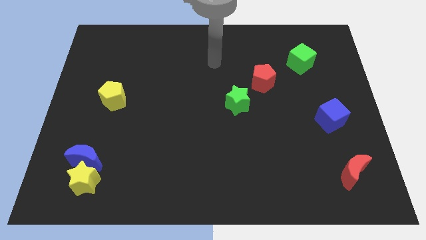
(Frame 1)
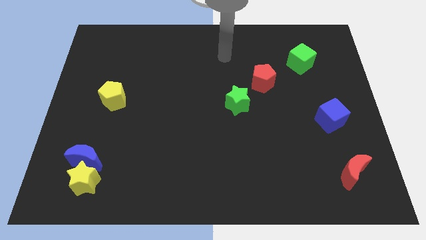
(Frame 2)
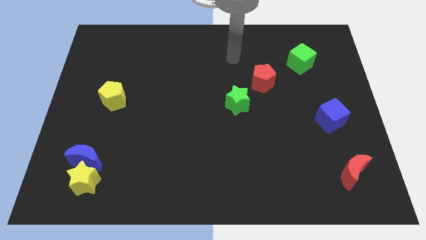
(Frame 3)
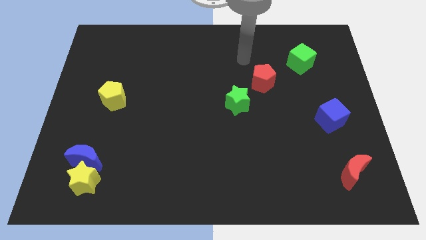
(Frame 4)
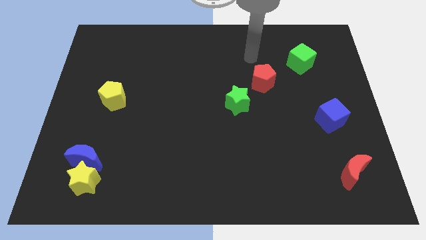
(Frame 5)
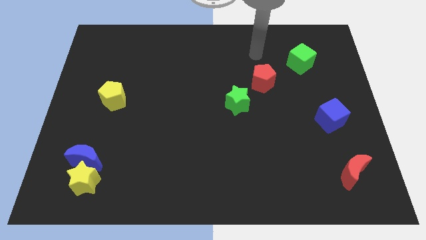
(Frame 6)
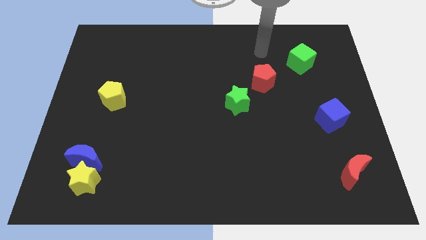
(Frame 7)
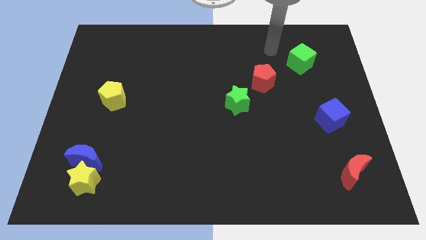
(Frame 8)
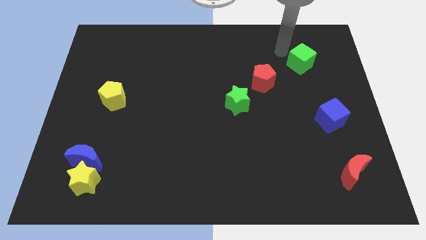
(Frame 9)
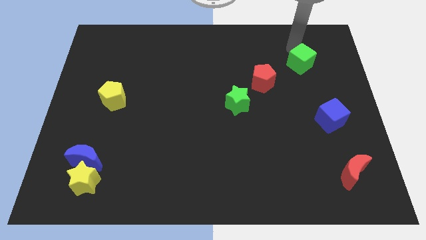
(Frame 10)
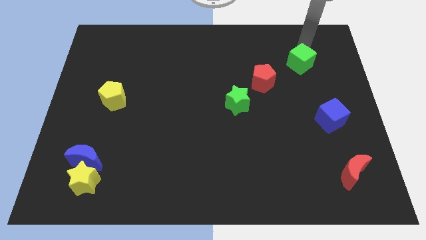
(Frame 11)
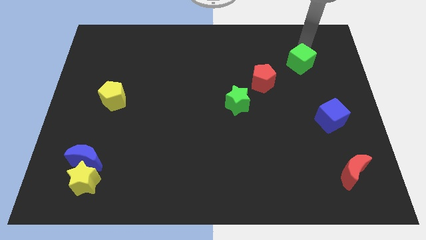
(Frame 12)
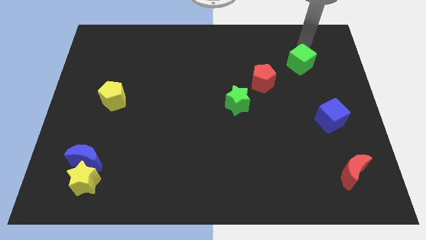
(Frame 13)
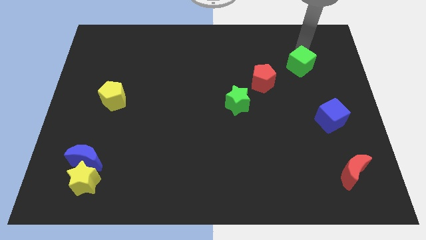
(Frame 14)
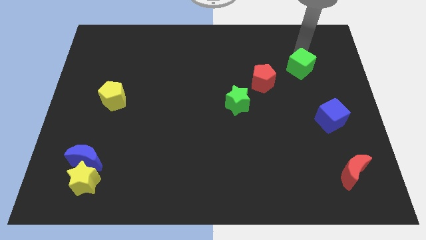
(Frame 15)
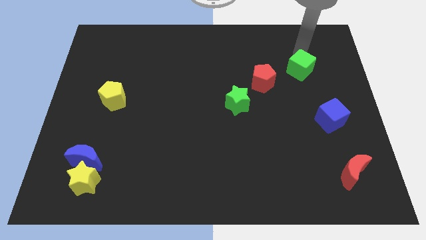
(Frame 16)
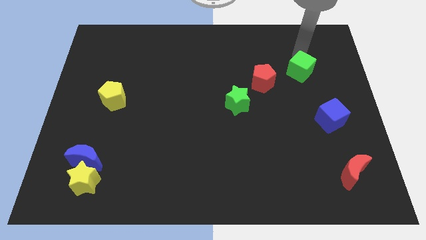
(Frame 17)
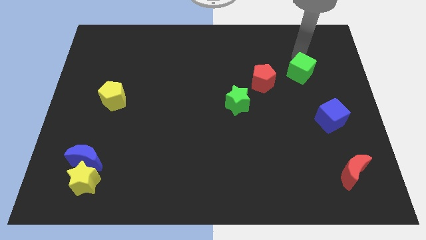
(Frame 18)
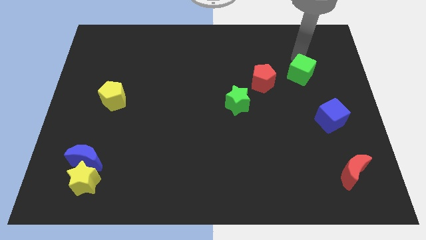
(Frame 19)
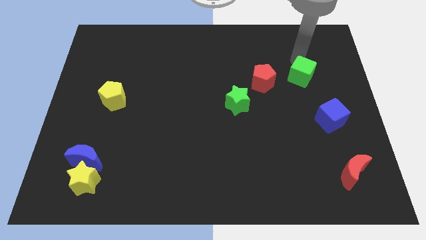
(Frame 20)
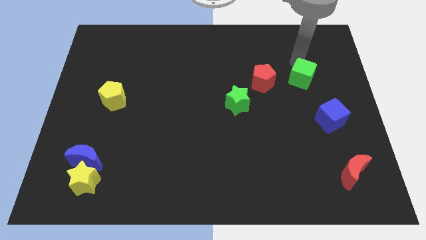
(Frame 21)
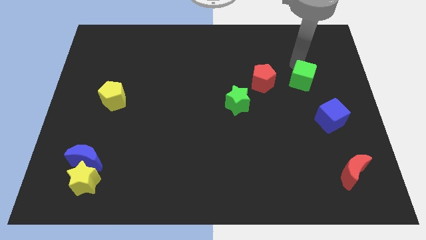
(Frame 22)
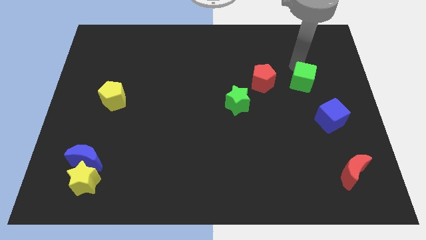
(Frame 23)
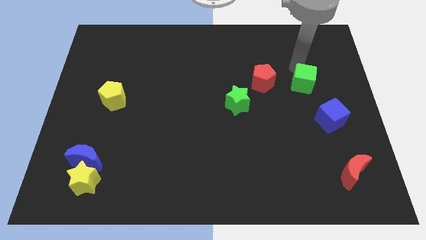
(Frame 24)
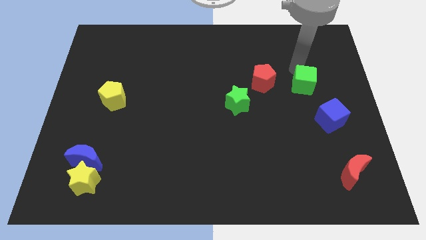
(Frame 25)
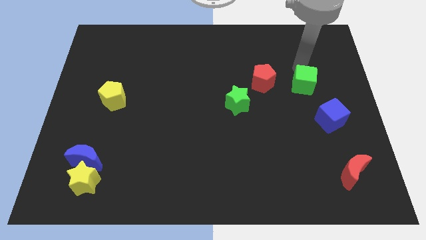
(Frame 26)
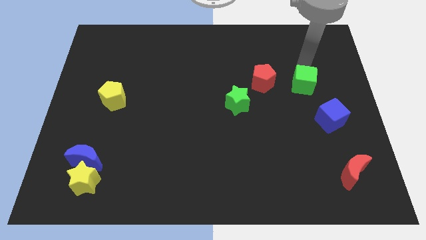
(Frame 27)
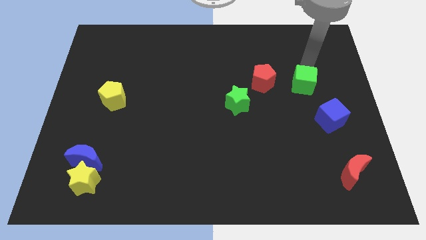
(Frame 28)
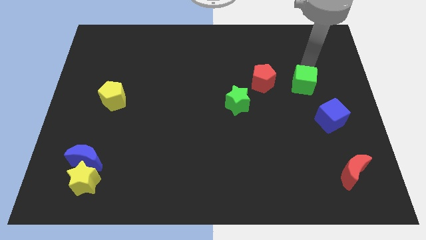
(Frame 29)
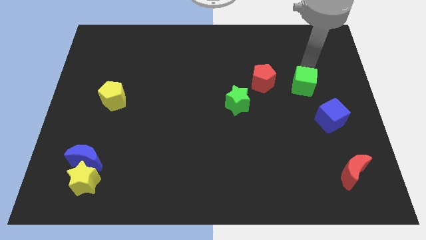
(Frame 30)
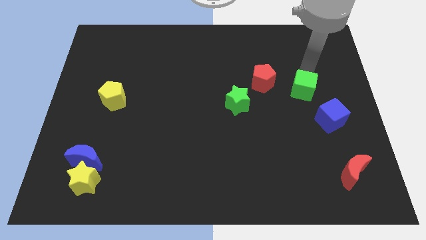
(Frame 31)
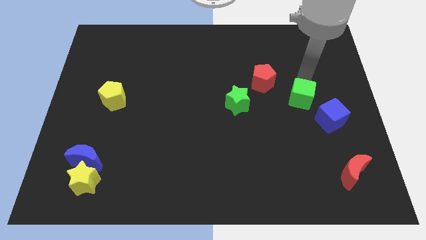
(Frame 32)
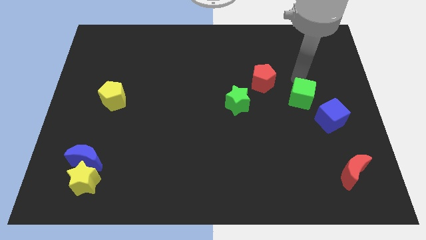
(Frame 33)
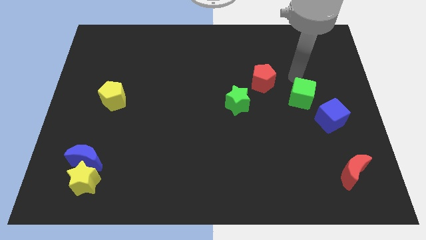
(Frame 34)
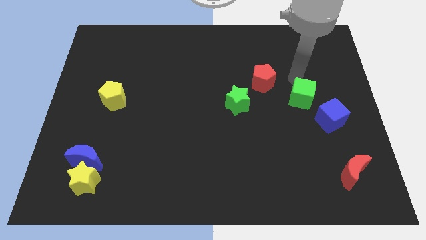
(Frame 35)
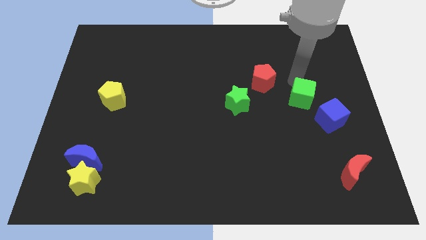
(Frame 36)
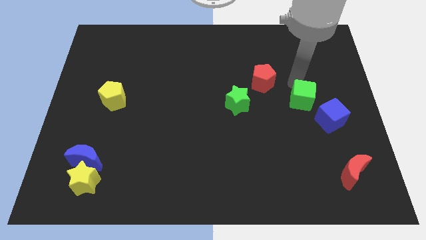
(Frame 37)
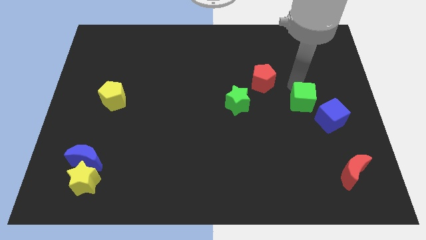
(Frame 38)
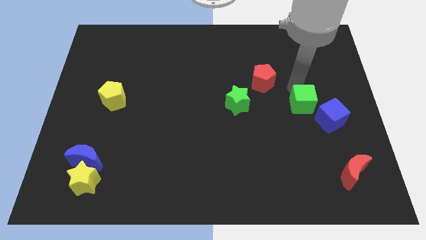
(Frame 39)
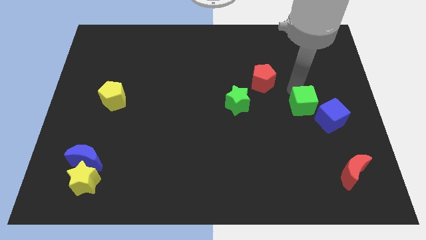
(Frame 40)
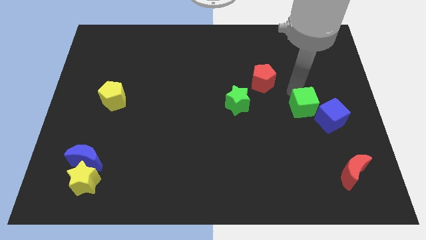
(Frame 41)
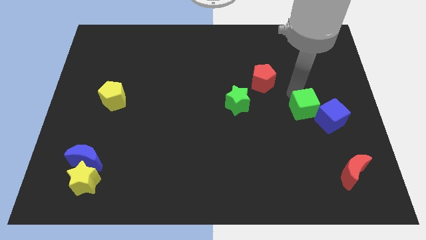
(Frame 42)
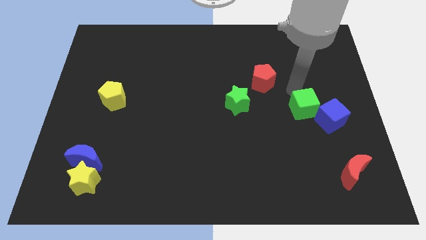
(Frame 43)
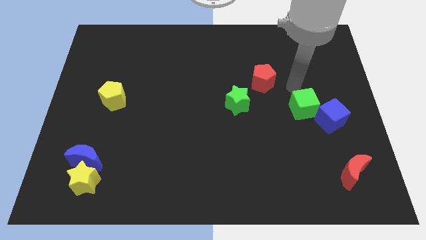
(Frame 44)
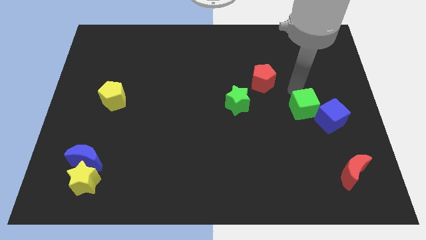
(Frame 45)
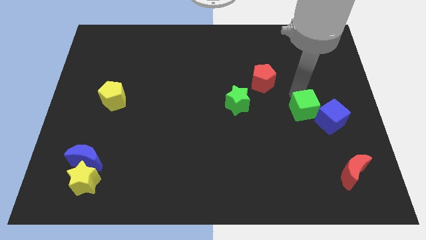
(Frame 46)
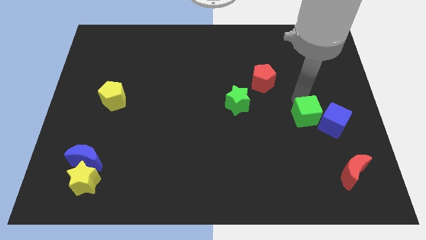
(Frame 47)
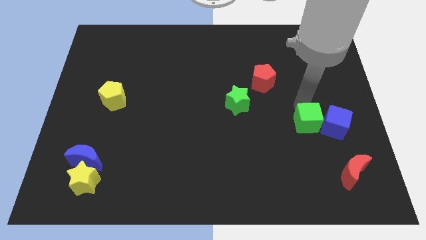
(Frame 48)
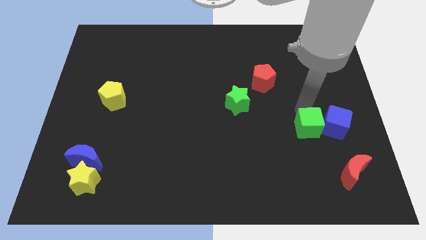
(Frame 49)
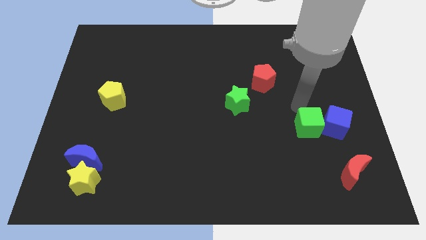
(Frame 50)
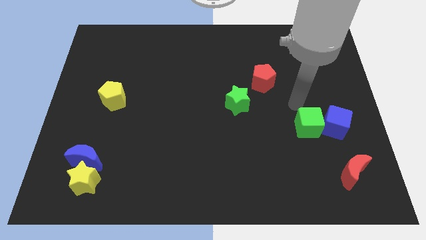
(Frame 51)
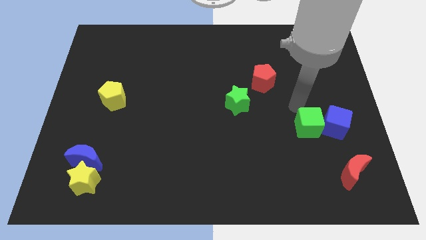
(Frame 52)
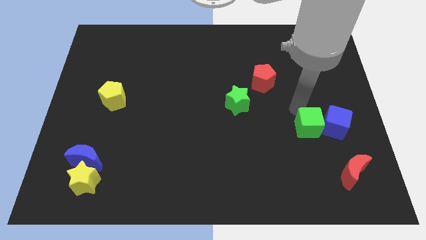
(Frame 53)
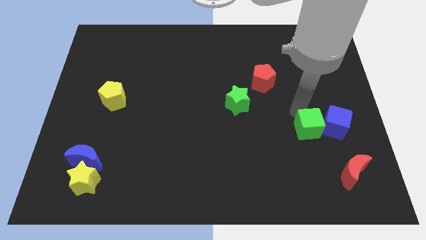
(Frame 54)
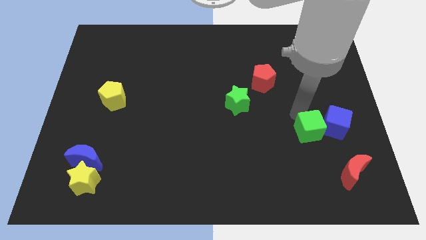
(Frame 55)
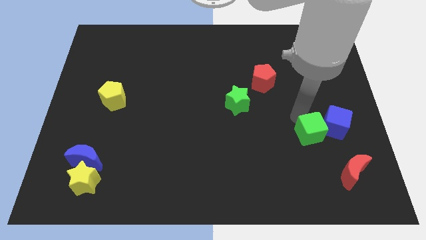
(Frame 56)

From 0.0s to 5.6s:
move the green cube diagonally up and to the left of the red moon
